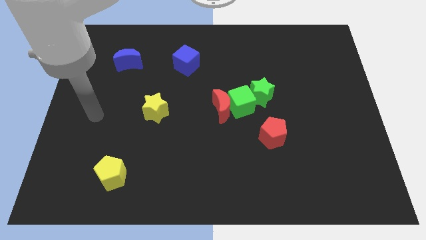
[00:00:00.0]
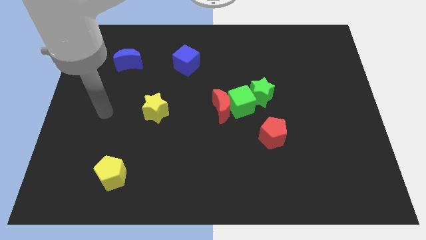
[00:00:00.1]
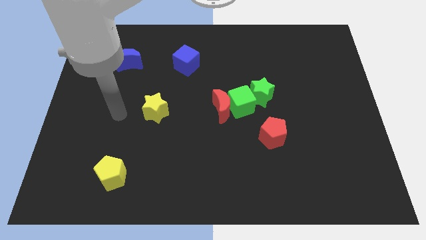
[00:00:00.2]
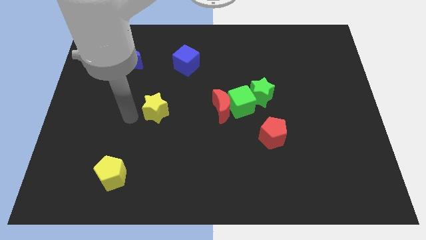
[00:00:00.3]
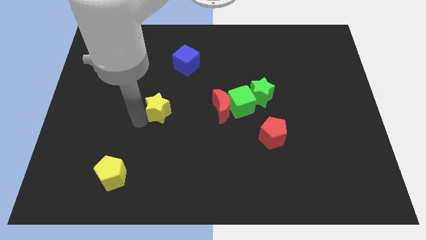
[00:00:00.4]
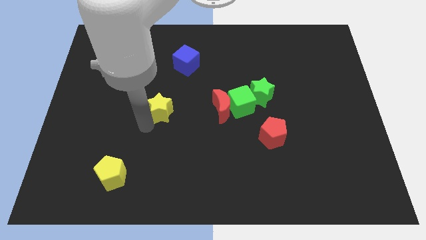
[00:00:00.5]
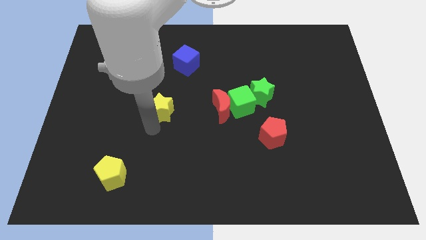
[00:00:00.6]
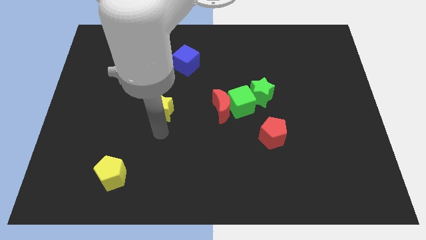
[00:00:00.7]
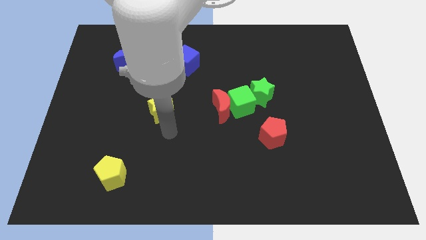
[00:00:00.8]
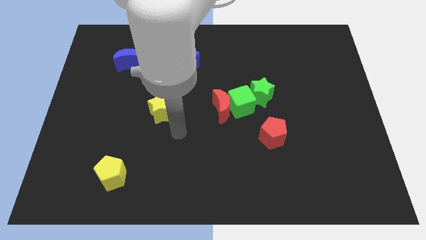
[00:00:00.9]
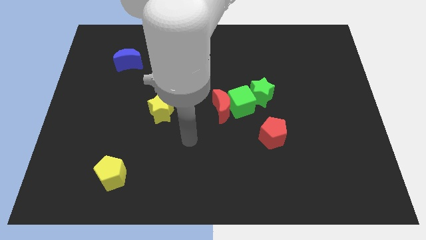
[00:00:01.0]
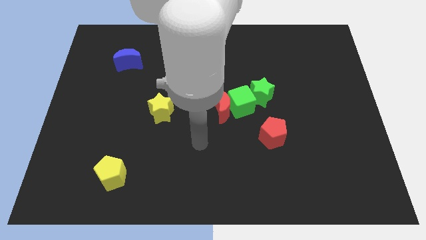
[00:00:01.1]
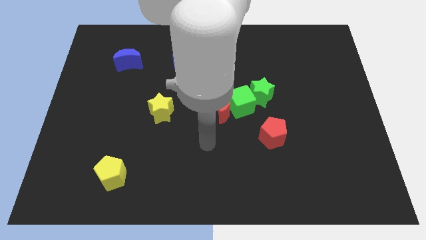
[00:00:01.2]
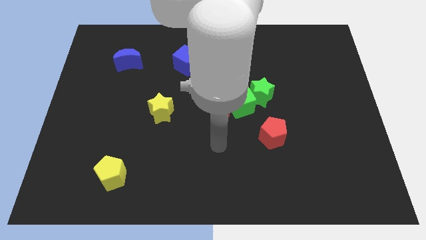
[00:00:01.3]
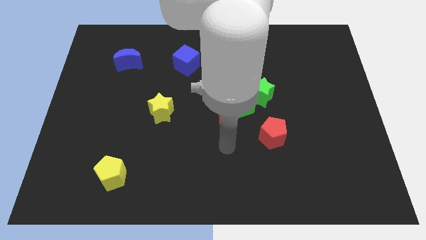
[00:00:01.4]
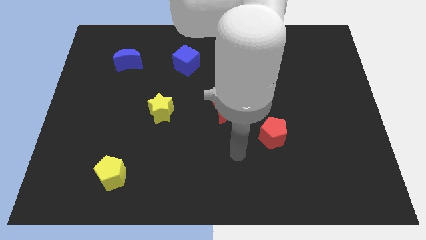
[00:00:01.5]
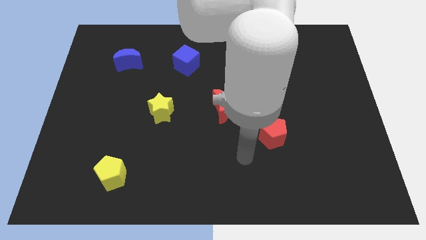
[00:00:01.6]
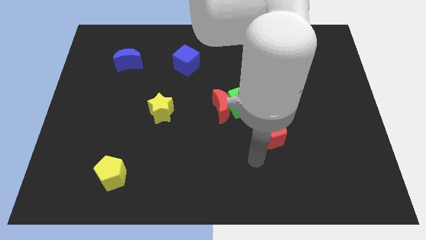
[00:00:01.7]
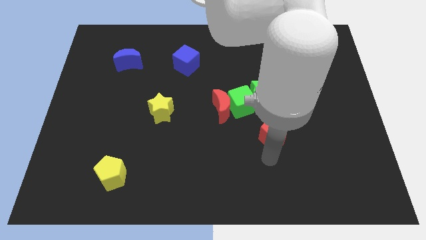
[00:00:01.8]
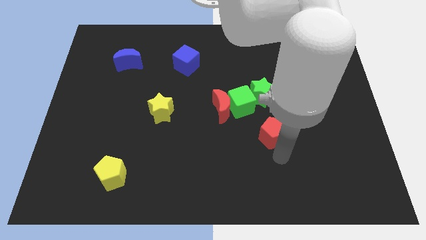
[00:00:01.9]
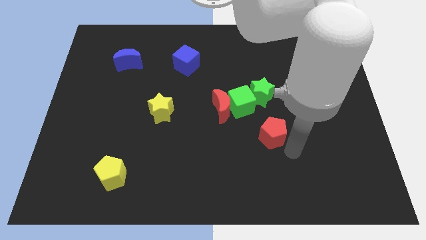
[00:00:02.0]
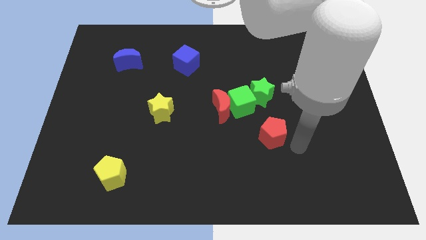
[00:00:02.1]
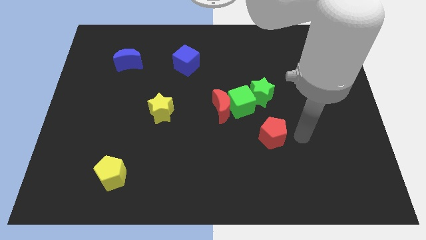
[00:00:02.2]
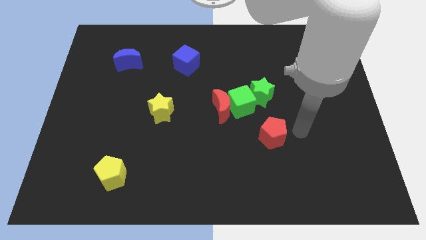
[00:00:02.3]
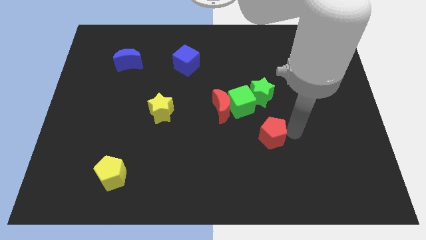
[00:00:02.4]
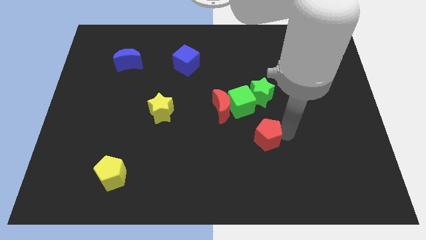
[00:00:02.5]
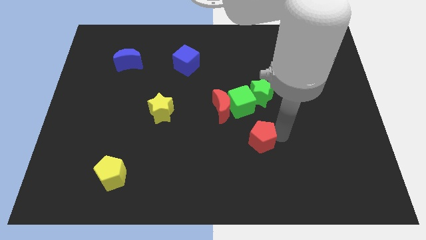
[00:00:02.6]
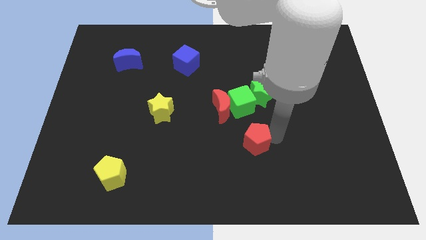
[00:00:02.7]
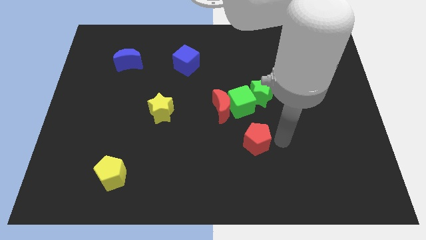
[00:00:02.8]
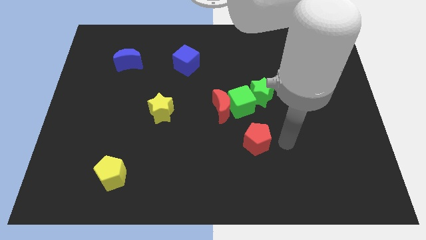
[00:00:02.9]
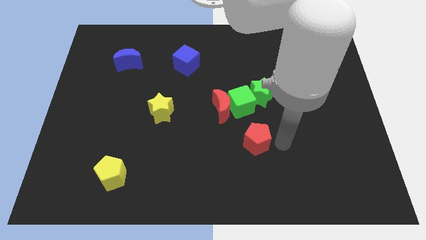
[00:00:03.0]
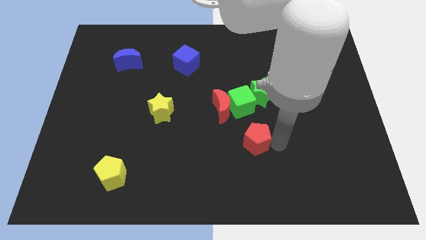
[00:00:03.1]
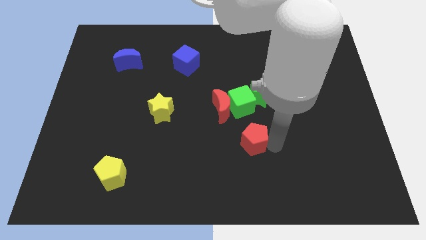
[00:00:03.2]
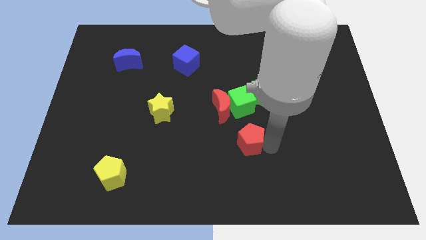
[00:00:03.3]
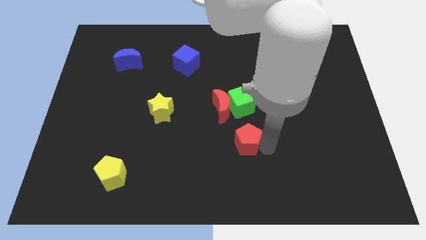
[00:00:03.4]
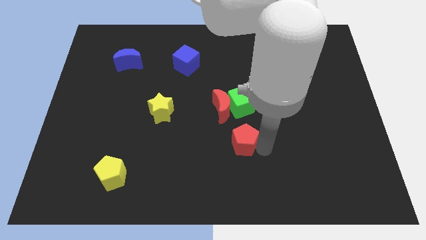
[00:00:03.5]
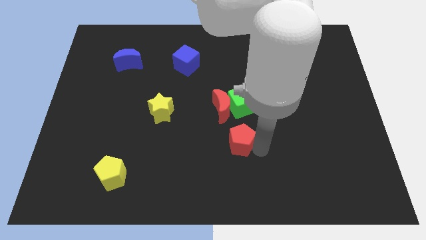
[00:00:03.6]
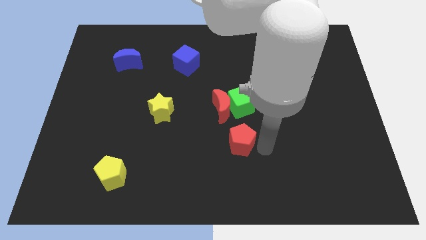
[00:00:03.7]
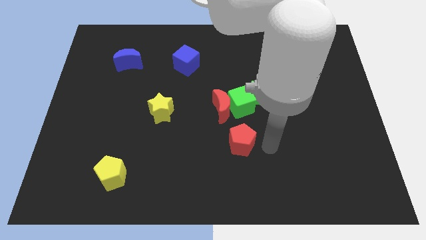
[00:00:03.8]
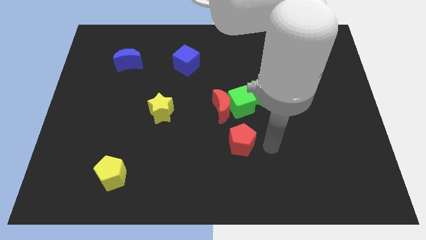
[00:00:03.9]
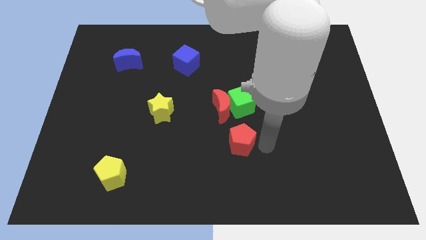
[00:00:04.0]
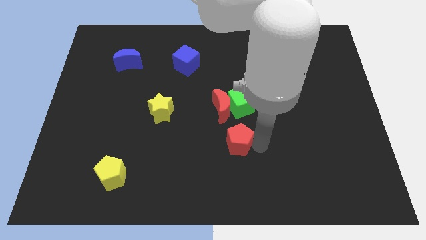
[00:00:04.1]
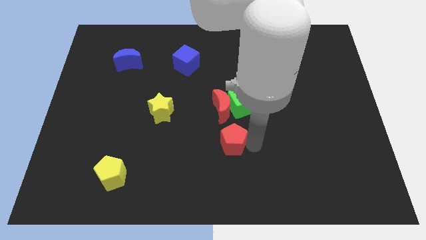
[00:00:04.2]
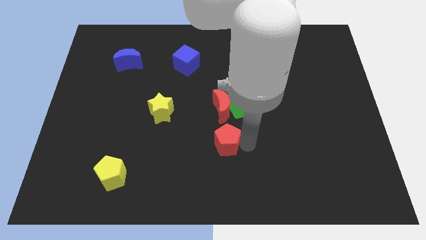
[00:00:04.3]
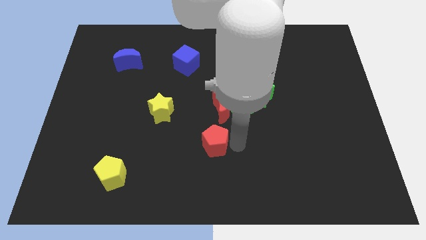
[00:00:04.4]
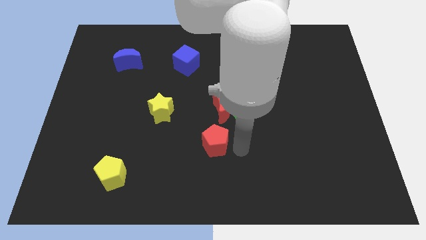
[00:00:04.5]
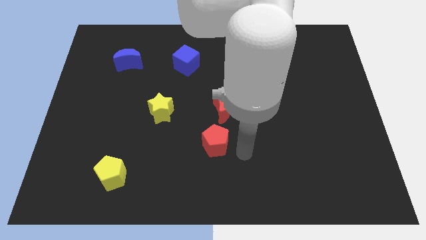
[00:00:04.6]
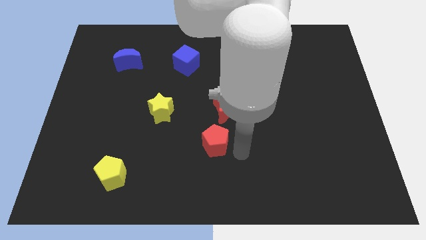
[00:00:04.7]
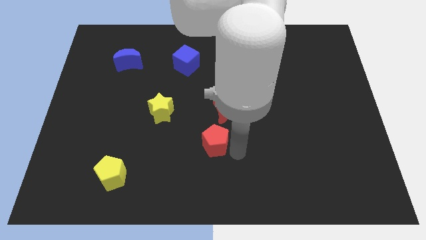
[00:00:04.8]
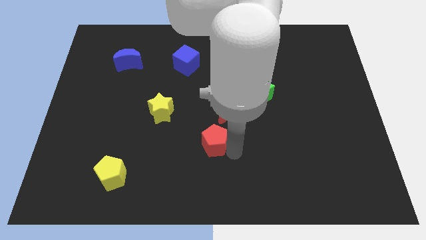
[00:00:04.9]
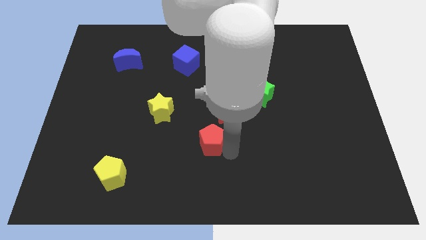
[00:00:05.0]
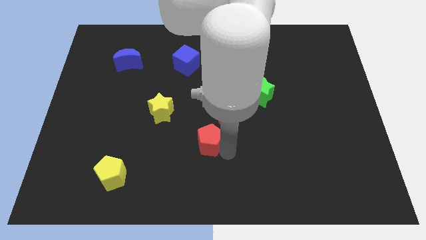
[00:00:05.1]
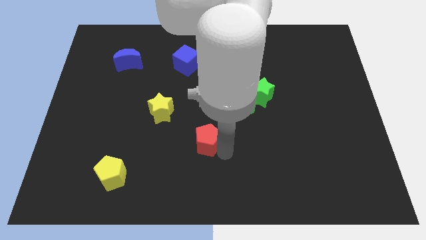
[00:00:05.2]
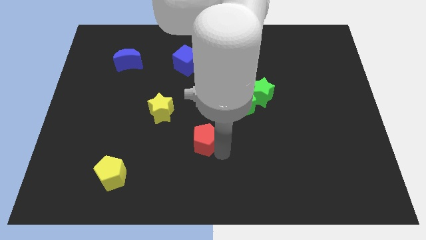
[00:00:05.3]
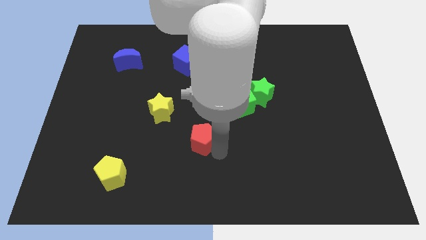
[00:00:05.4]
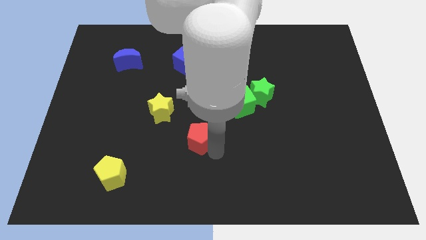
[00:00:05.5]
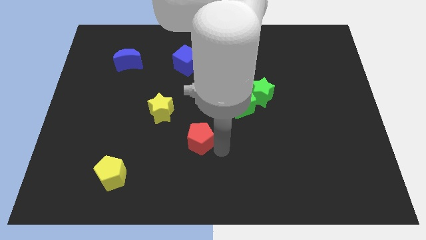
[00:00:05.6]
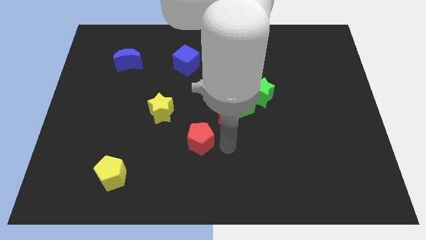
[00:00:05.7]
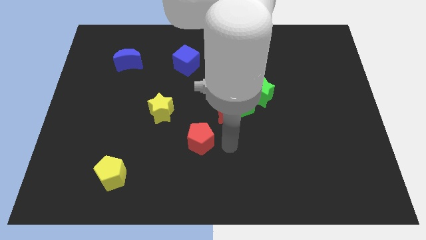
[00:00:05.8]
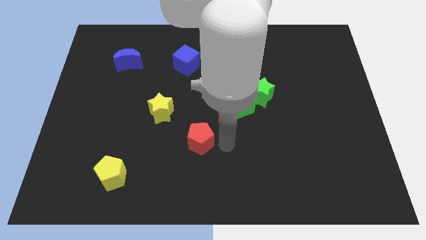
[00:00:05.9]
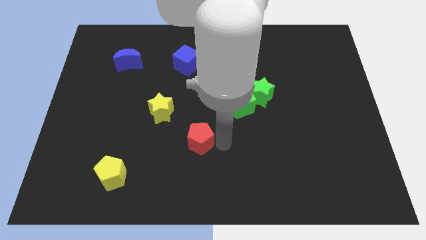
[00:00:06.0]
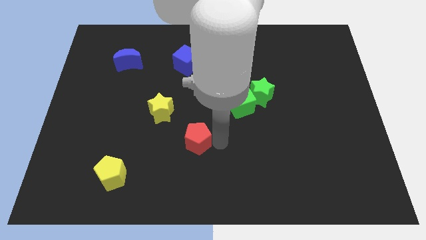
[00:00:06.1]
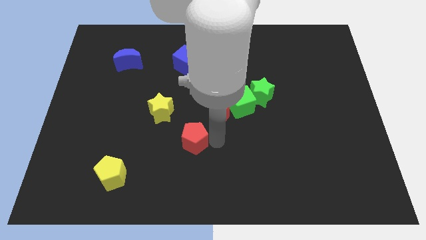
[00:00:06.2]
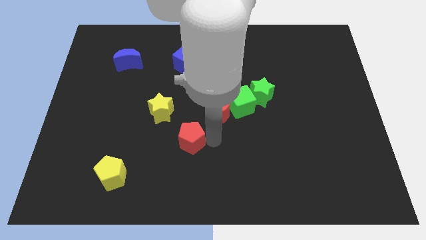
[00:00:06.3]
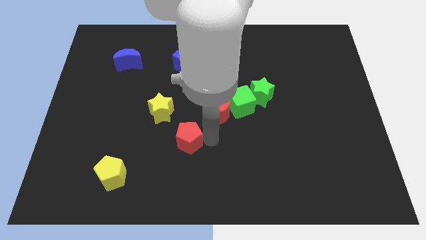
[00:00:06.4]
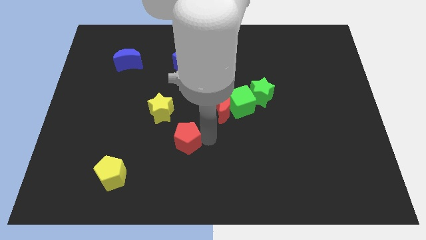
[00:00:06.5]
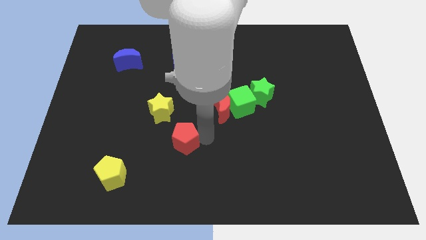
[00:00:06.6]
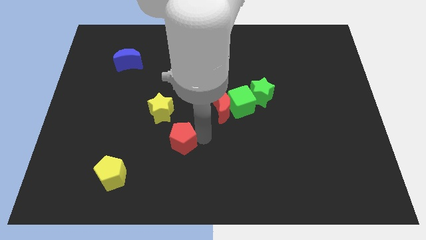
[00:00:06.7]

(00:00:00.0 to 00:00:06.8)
slide the red pentagon to the left

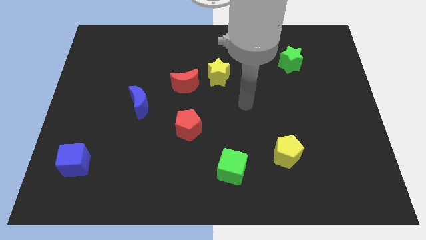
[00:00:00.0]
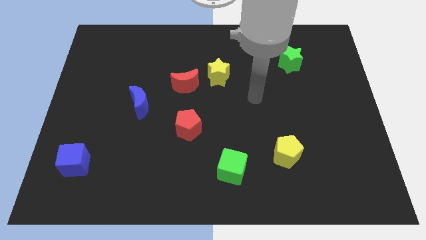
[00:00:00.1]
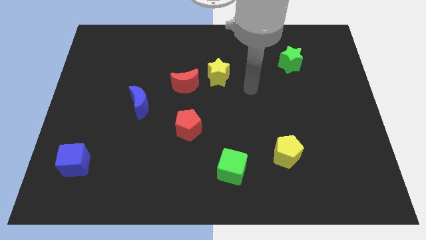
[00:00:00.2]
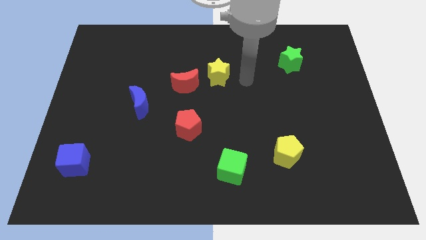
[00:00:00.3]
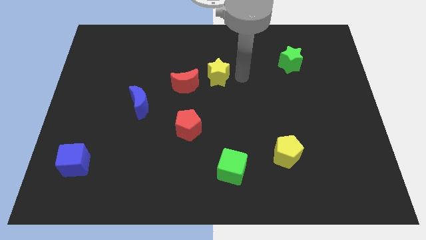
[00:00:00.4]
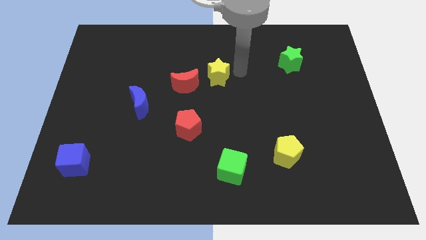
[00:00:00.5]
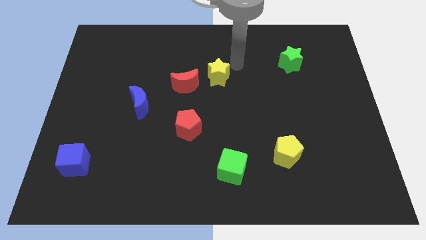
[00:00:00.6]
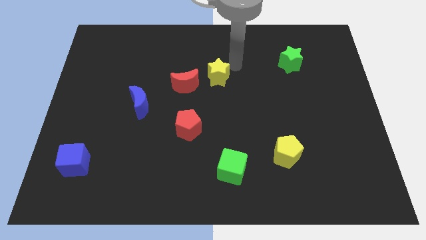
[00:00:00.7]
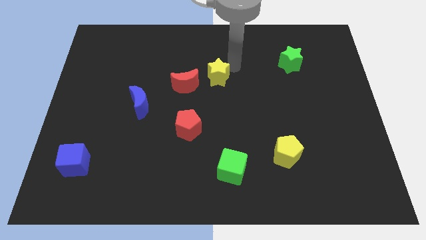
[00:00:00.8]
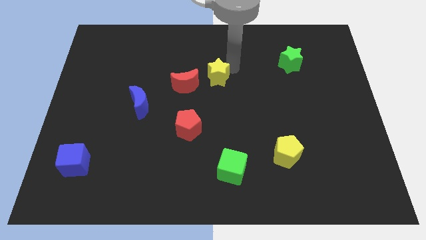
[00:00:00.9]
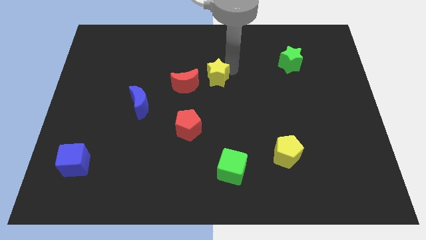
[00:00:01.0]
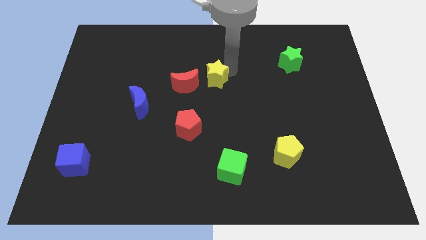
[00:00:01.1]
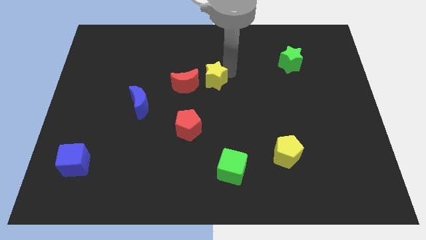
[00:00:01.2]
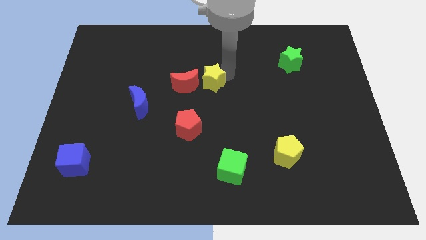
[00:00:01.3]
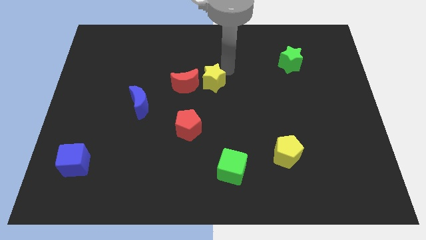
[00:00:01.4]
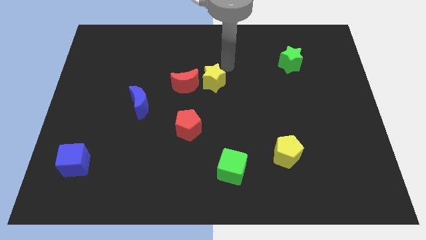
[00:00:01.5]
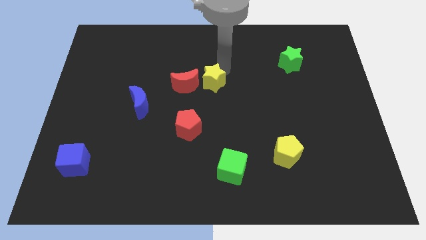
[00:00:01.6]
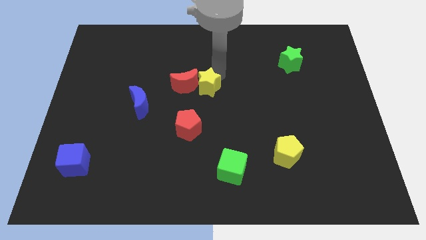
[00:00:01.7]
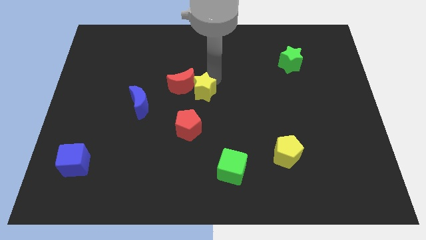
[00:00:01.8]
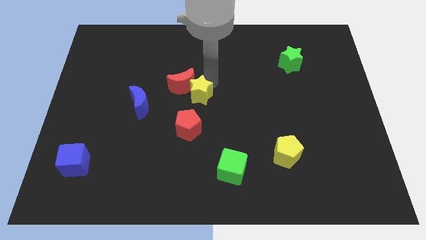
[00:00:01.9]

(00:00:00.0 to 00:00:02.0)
push the yellow star somewhat downwards and then left
